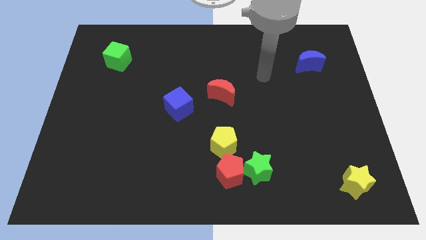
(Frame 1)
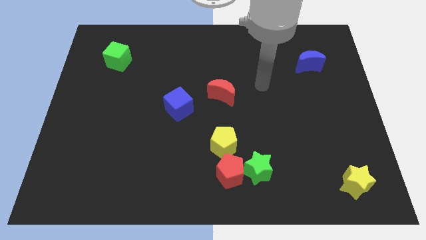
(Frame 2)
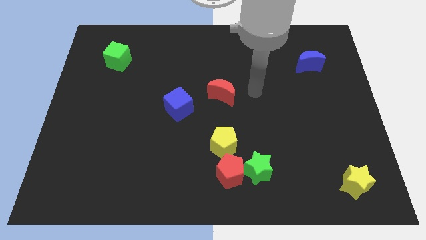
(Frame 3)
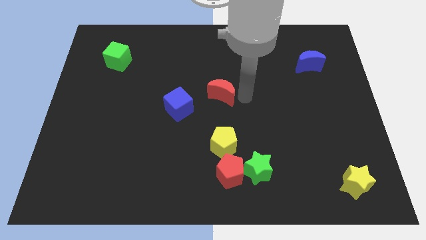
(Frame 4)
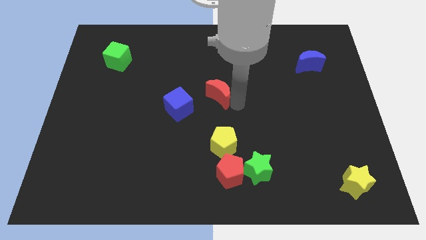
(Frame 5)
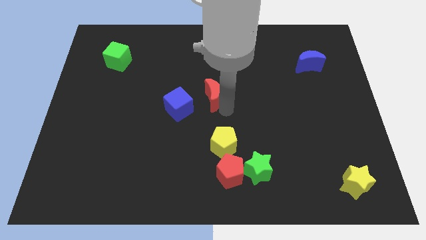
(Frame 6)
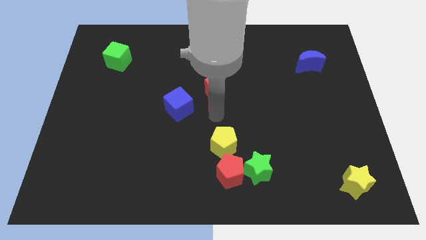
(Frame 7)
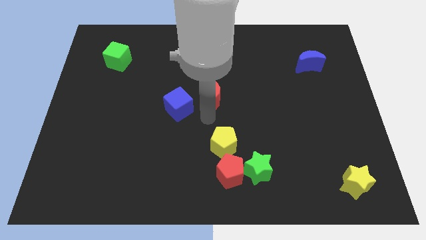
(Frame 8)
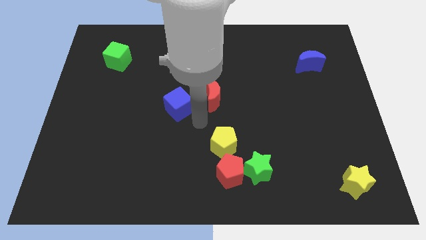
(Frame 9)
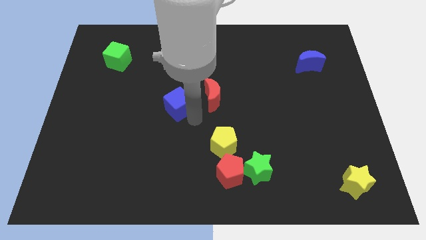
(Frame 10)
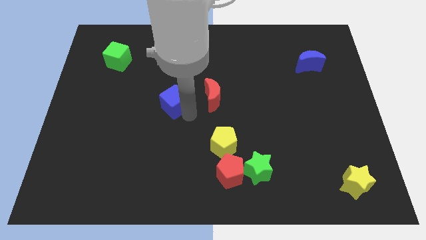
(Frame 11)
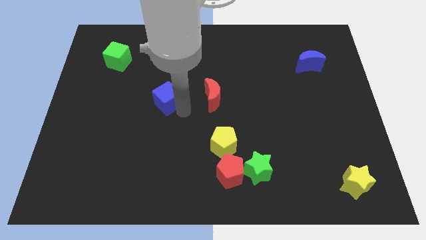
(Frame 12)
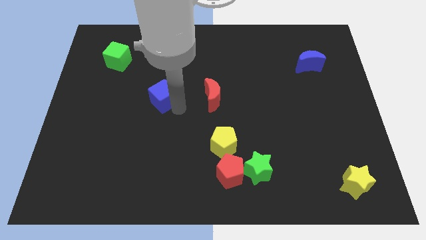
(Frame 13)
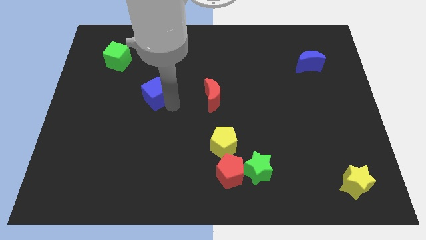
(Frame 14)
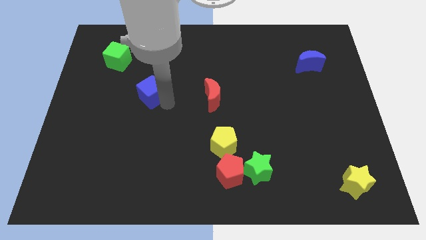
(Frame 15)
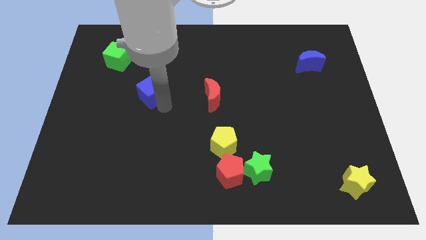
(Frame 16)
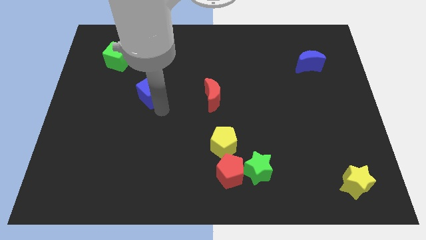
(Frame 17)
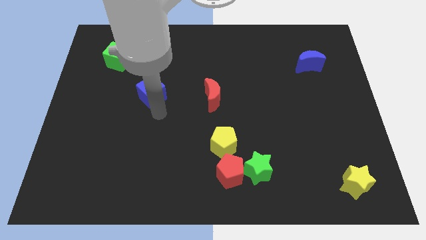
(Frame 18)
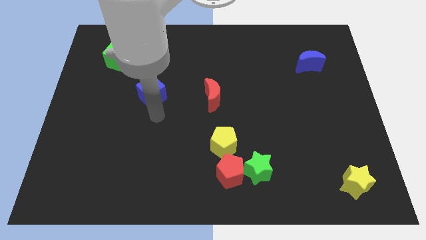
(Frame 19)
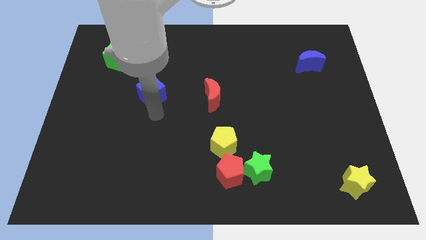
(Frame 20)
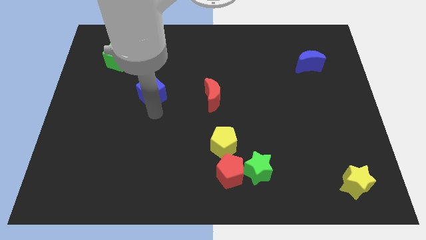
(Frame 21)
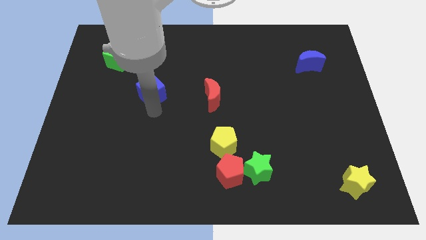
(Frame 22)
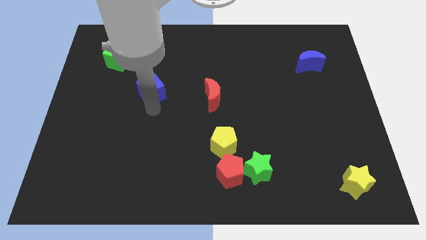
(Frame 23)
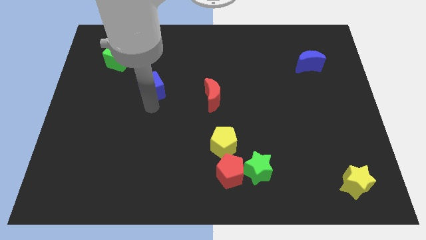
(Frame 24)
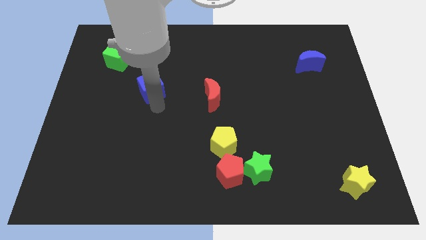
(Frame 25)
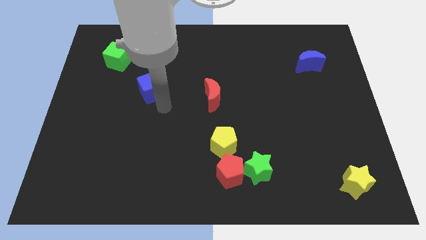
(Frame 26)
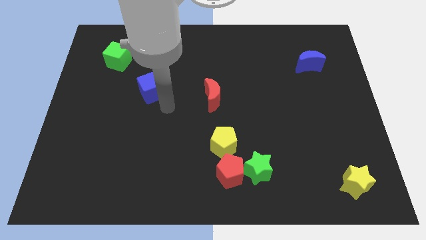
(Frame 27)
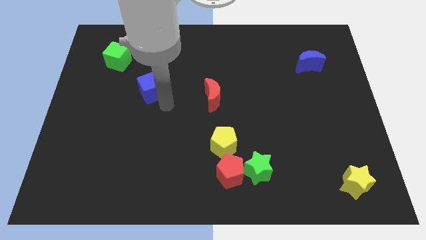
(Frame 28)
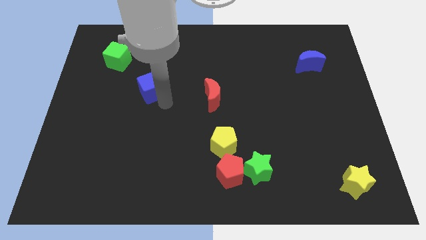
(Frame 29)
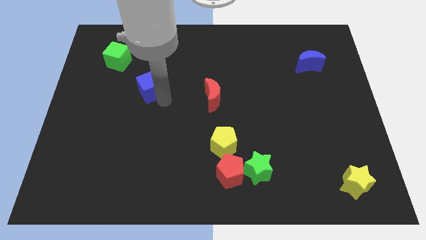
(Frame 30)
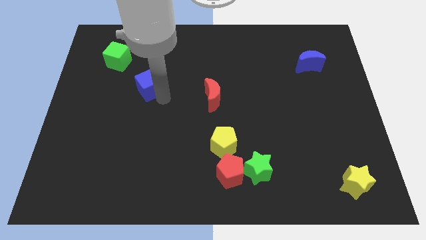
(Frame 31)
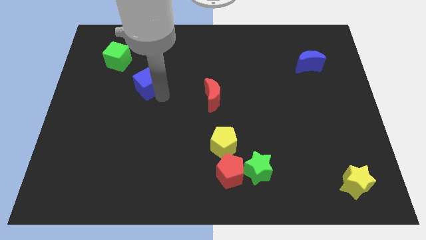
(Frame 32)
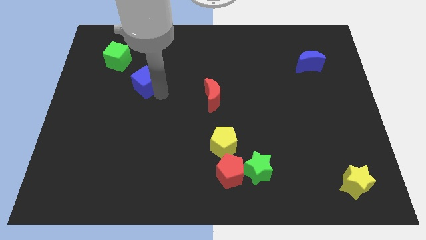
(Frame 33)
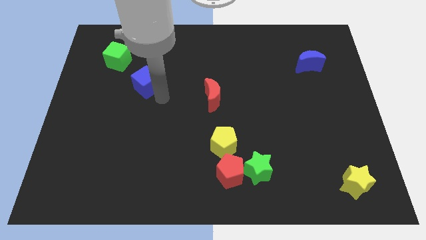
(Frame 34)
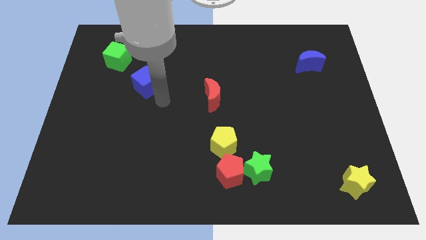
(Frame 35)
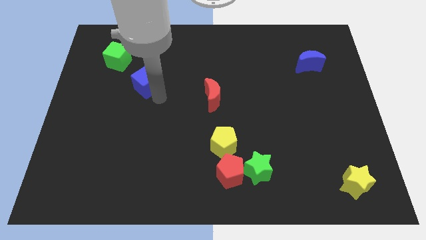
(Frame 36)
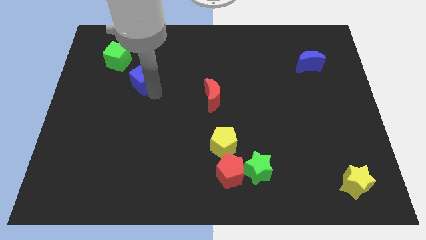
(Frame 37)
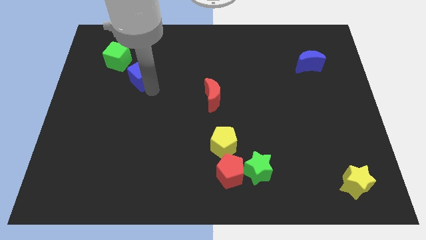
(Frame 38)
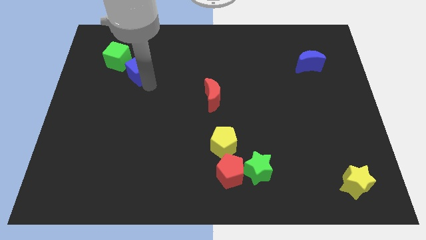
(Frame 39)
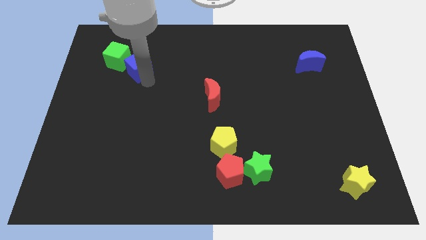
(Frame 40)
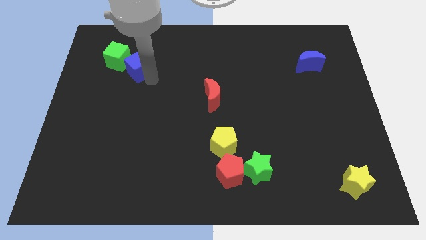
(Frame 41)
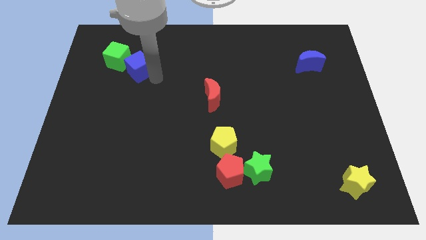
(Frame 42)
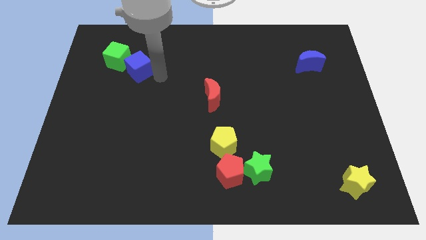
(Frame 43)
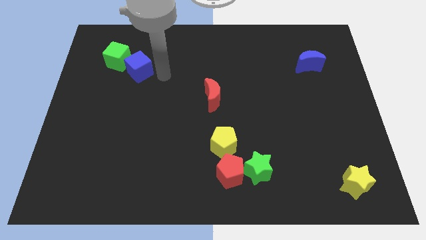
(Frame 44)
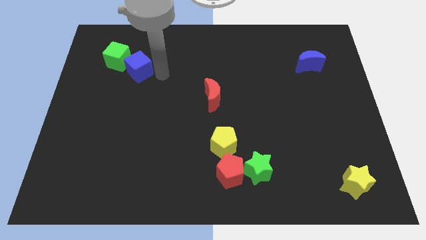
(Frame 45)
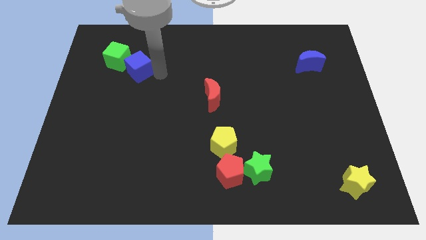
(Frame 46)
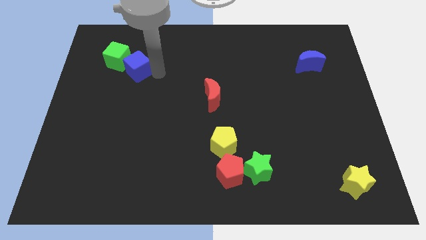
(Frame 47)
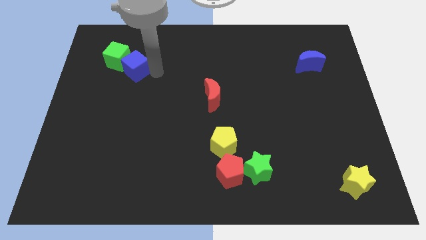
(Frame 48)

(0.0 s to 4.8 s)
move the blue cube next to the green cube

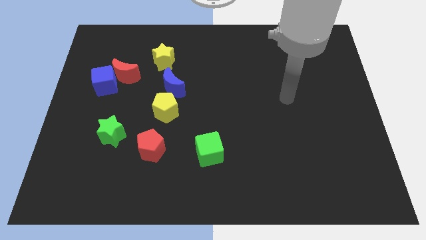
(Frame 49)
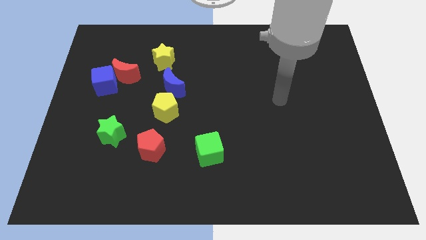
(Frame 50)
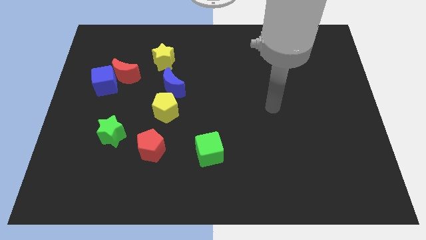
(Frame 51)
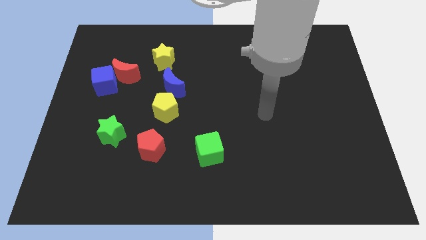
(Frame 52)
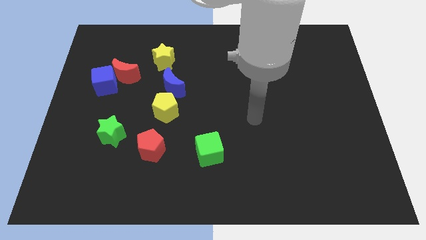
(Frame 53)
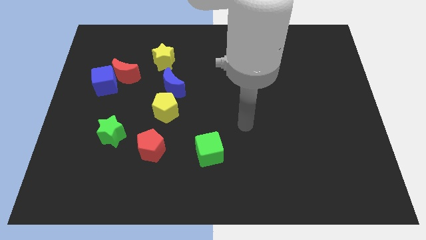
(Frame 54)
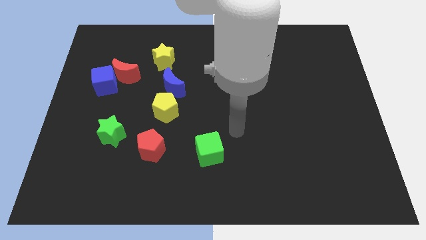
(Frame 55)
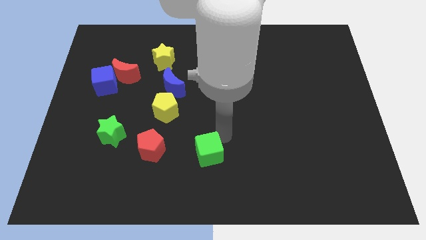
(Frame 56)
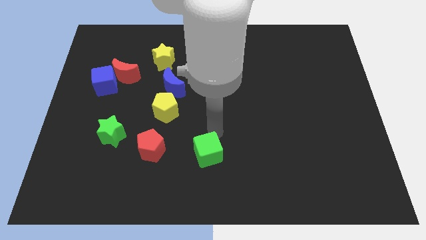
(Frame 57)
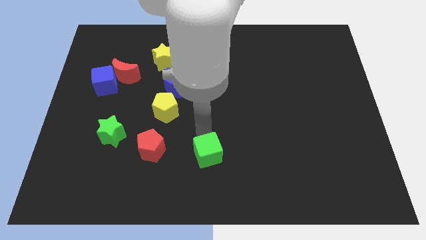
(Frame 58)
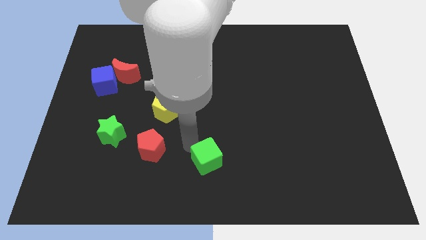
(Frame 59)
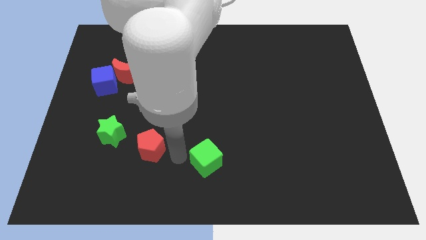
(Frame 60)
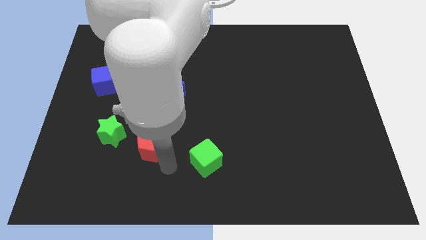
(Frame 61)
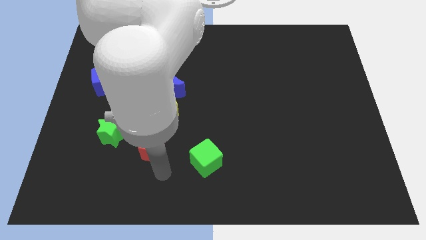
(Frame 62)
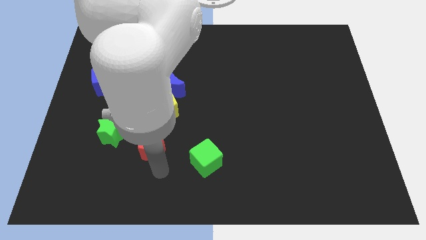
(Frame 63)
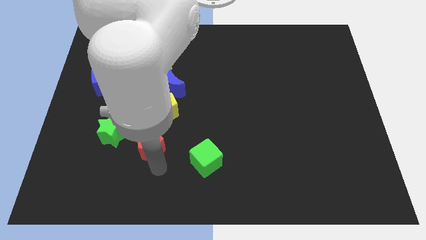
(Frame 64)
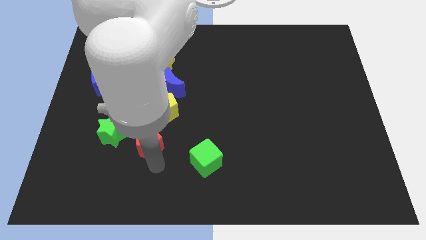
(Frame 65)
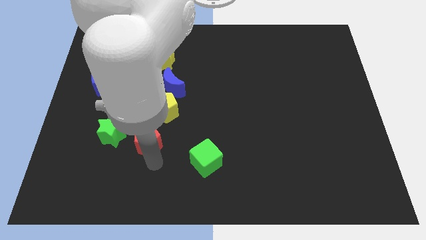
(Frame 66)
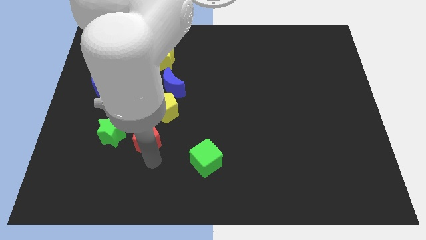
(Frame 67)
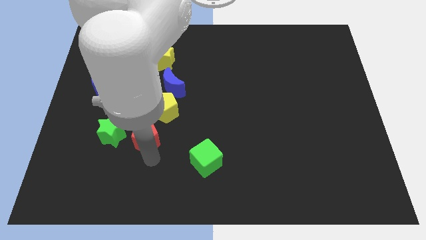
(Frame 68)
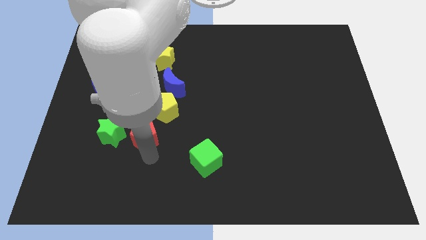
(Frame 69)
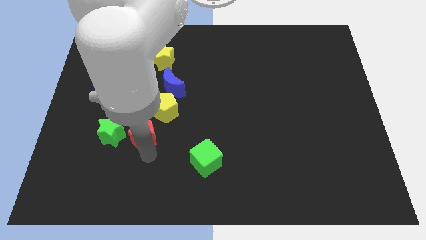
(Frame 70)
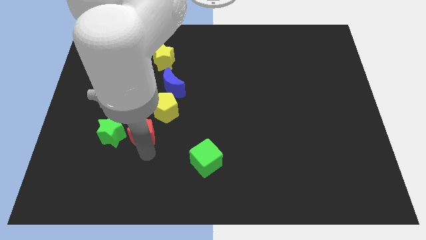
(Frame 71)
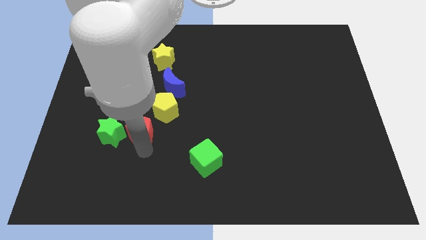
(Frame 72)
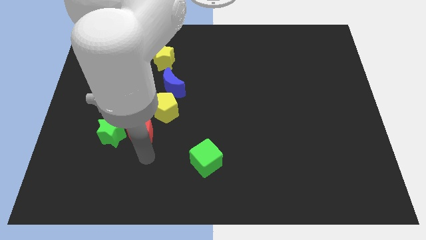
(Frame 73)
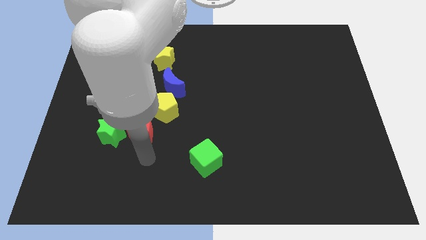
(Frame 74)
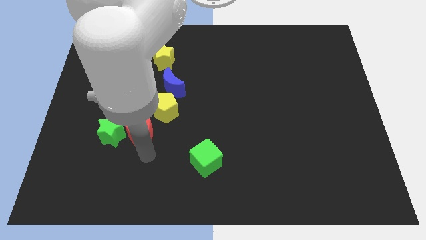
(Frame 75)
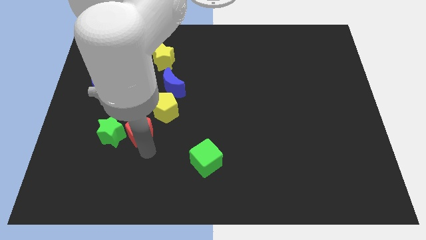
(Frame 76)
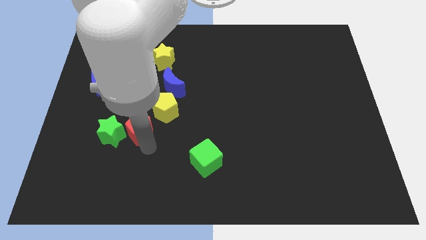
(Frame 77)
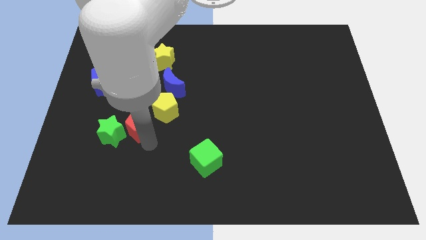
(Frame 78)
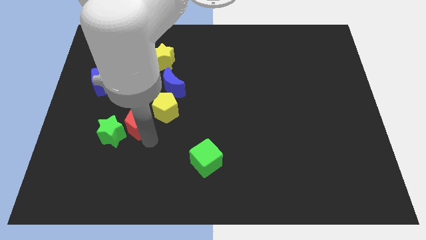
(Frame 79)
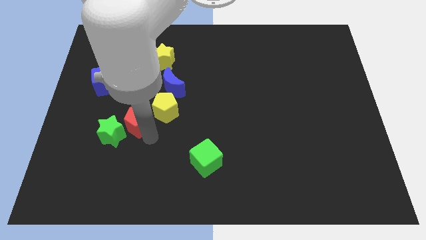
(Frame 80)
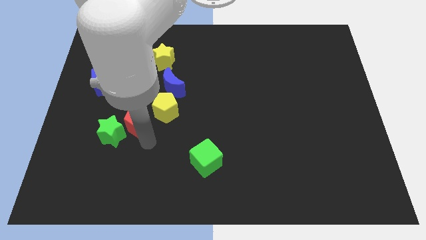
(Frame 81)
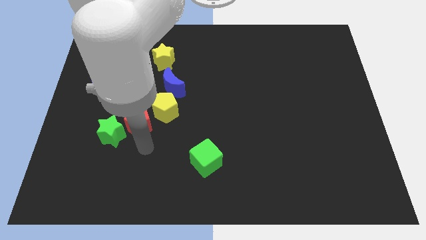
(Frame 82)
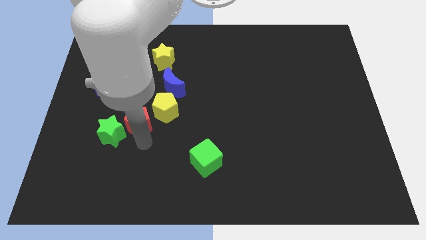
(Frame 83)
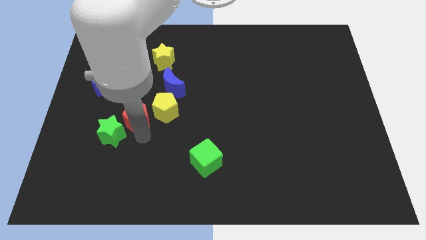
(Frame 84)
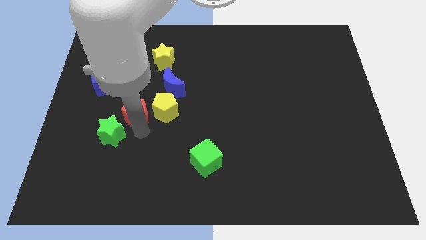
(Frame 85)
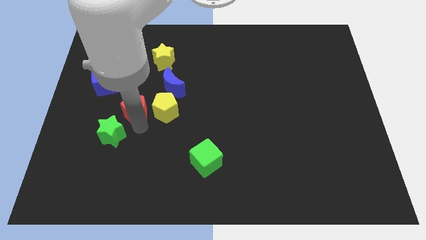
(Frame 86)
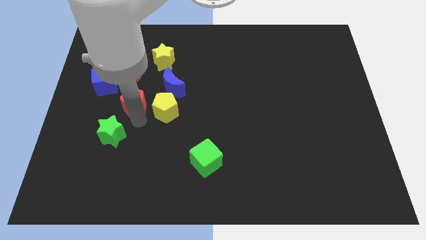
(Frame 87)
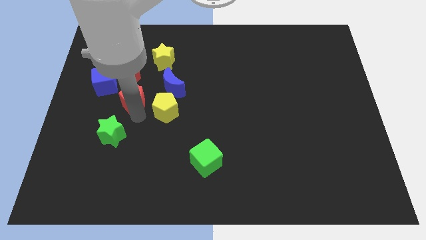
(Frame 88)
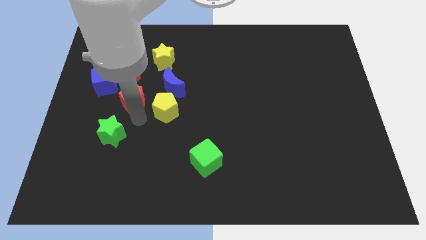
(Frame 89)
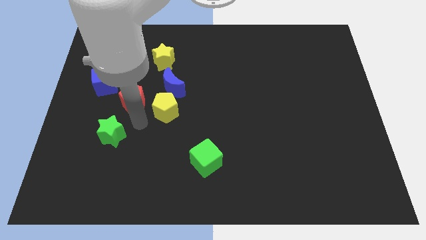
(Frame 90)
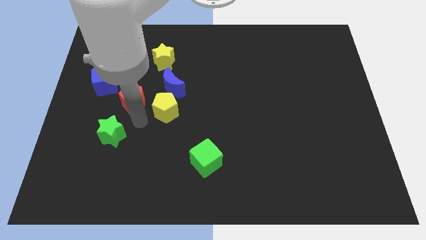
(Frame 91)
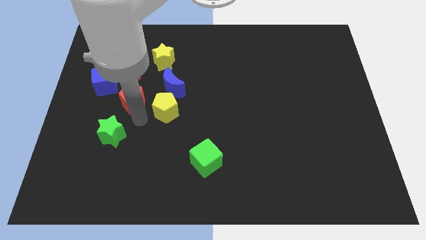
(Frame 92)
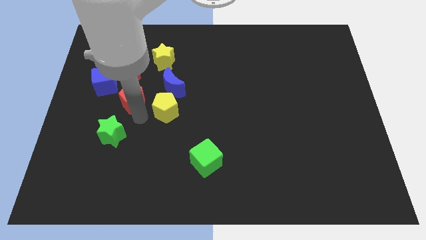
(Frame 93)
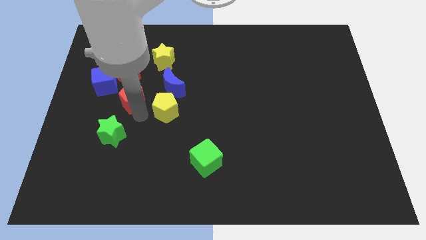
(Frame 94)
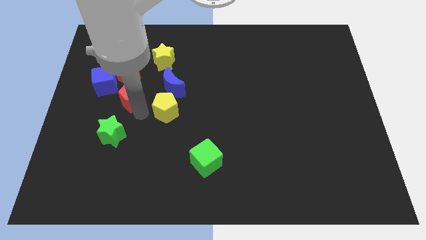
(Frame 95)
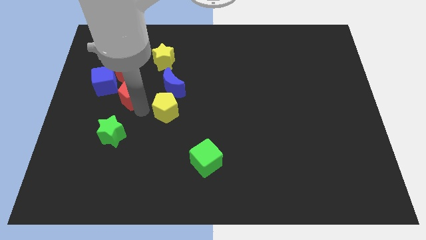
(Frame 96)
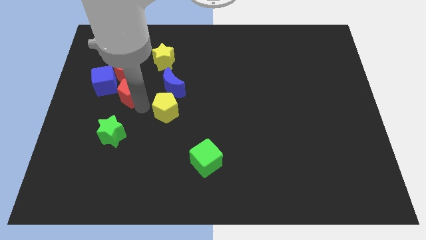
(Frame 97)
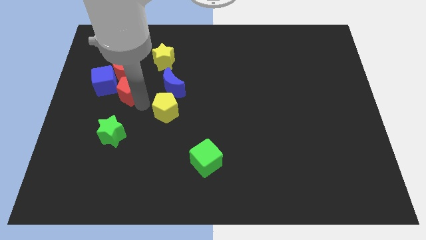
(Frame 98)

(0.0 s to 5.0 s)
push the red pentagon towards the red moon
